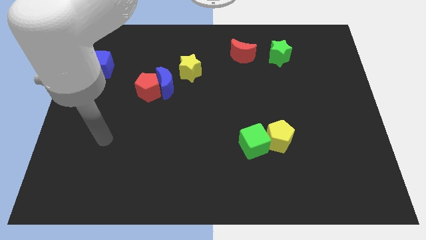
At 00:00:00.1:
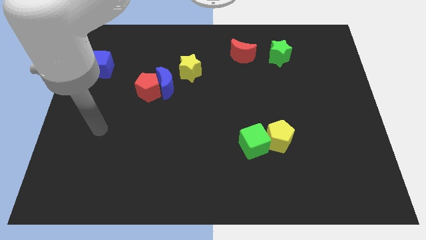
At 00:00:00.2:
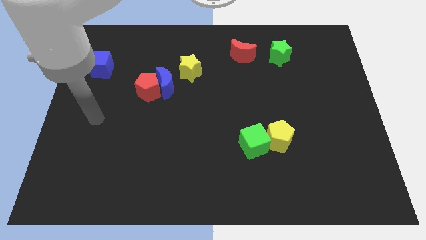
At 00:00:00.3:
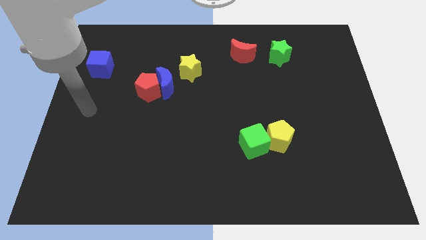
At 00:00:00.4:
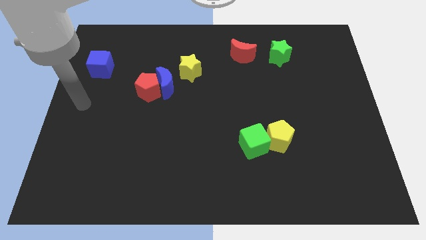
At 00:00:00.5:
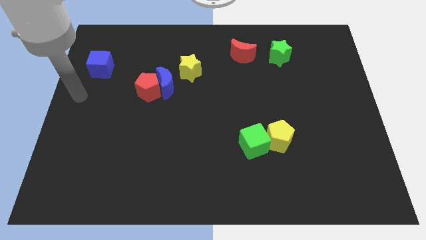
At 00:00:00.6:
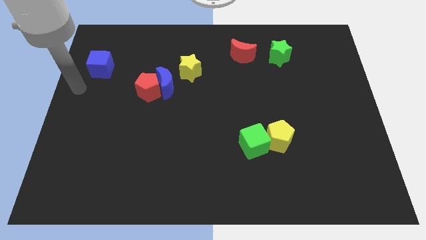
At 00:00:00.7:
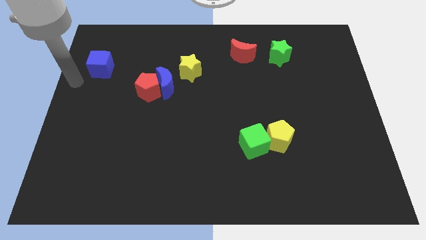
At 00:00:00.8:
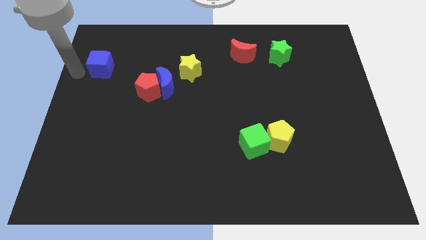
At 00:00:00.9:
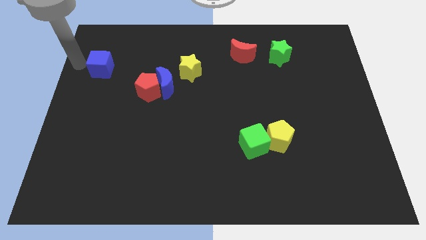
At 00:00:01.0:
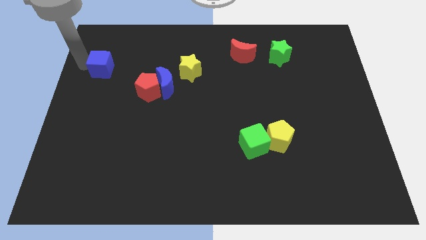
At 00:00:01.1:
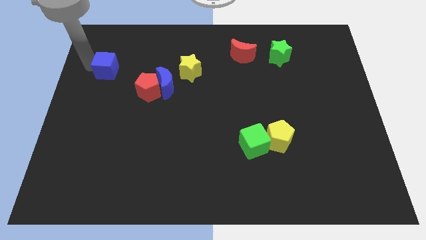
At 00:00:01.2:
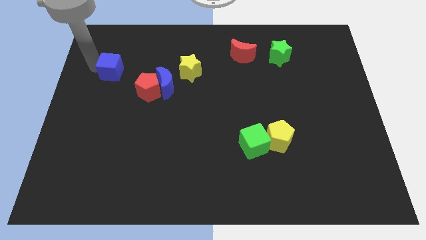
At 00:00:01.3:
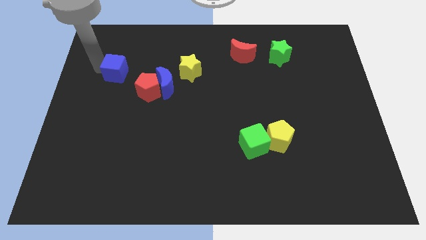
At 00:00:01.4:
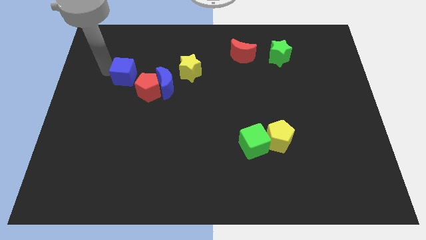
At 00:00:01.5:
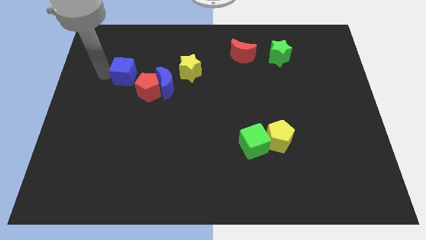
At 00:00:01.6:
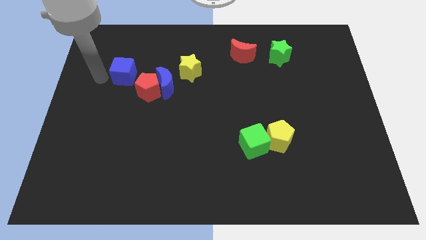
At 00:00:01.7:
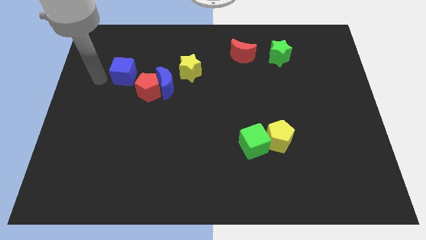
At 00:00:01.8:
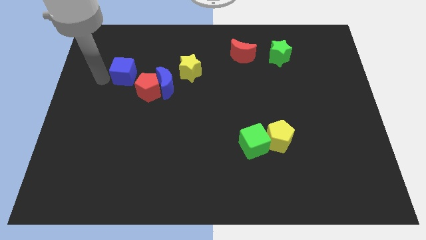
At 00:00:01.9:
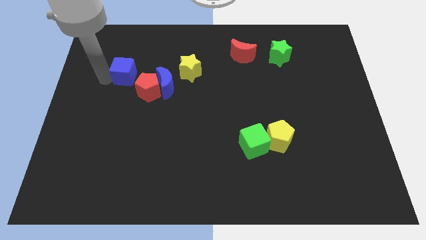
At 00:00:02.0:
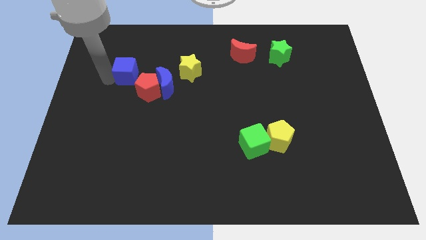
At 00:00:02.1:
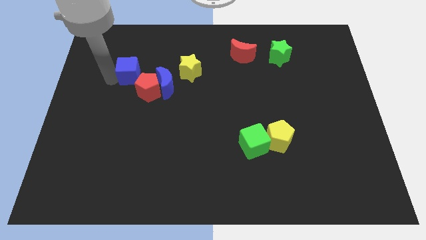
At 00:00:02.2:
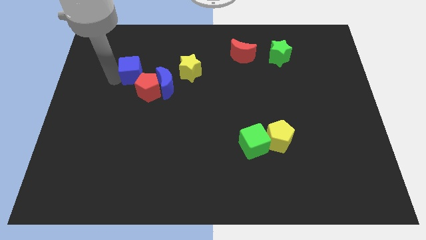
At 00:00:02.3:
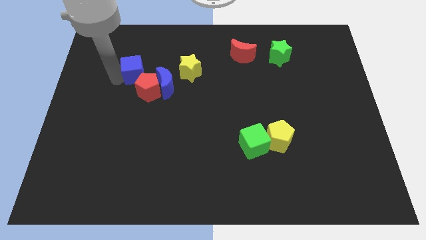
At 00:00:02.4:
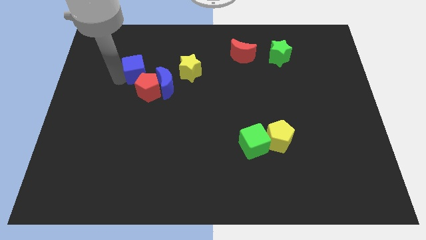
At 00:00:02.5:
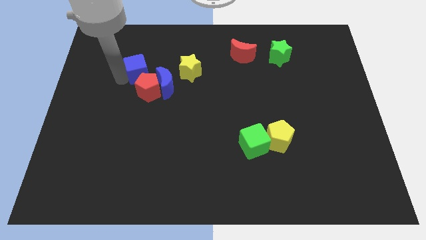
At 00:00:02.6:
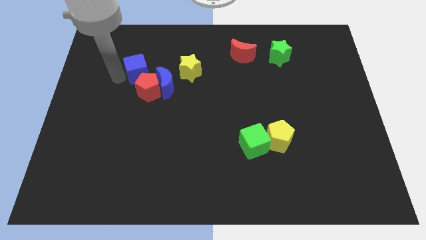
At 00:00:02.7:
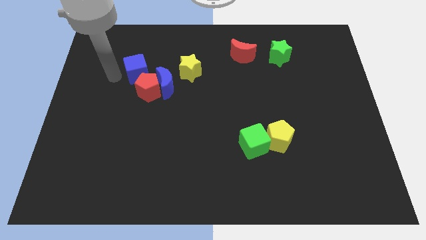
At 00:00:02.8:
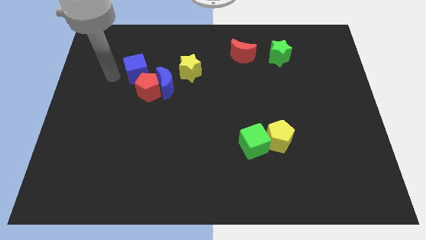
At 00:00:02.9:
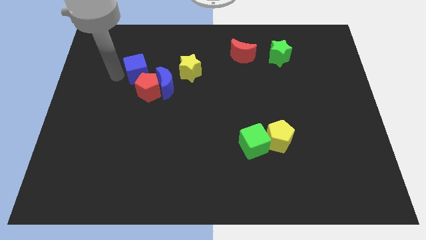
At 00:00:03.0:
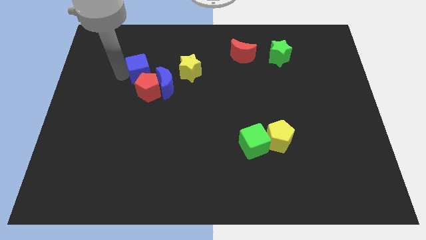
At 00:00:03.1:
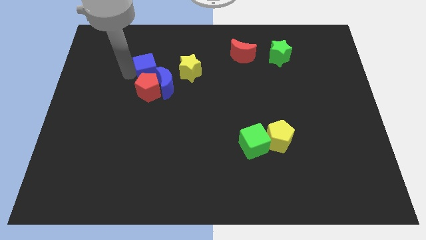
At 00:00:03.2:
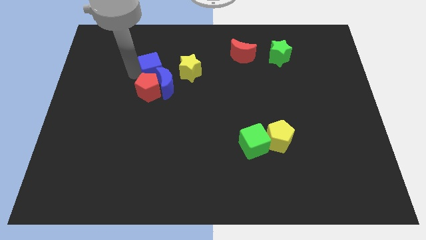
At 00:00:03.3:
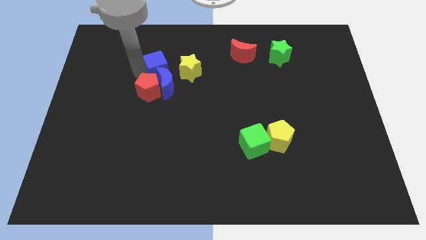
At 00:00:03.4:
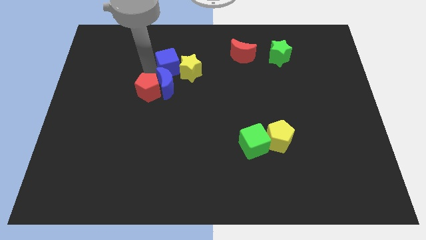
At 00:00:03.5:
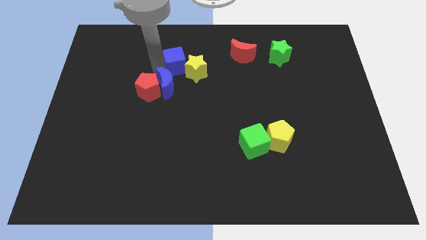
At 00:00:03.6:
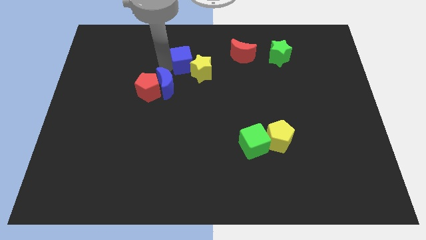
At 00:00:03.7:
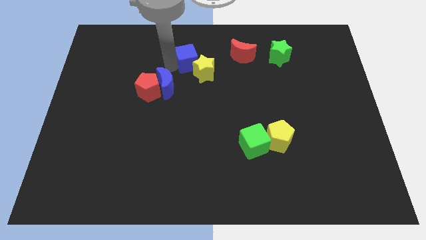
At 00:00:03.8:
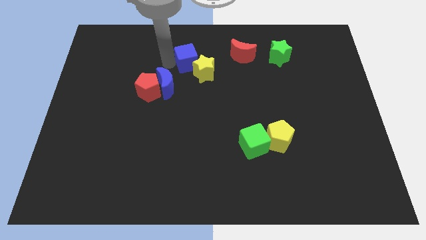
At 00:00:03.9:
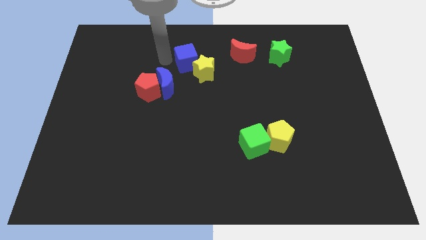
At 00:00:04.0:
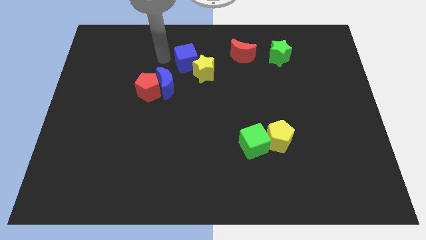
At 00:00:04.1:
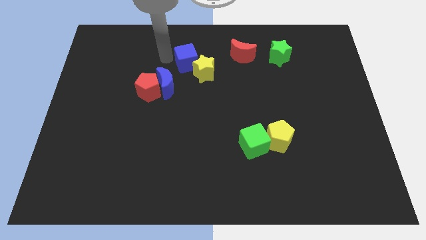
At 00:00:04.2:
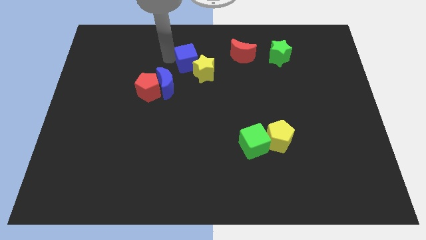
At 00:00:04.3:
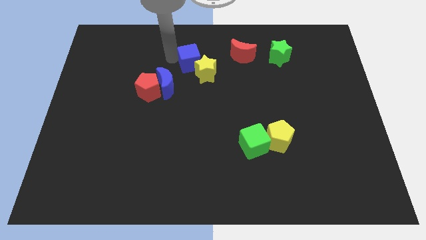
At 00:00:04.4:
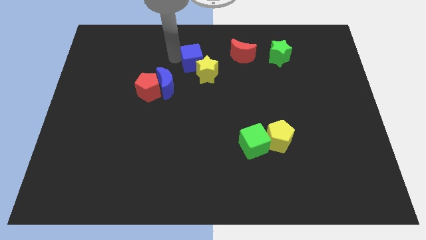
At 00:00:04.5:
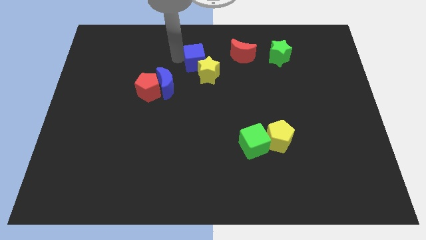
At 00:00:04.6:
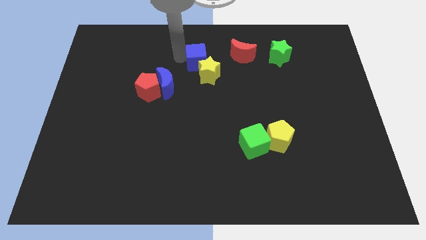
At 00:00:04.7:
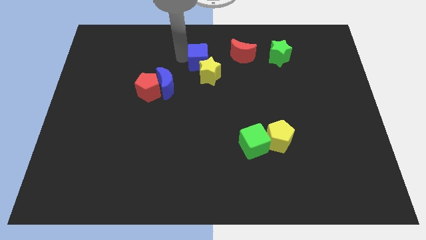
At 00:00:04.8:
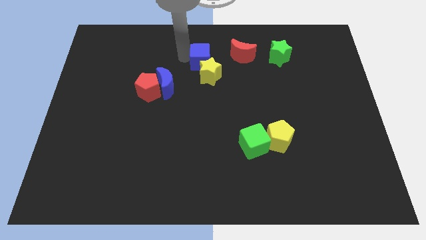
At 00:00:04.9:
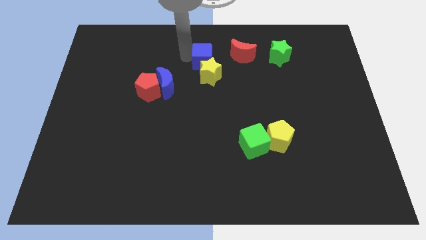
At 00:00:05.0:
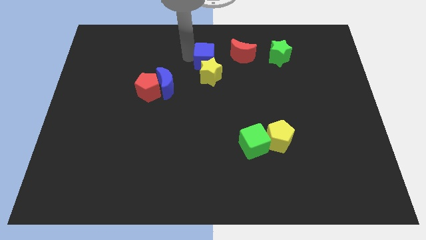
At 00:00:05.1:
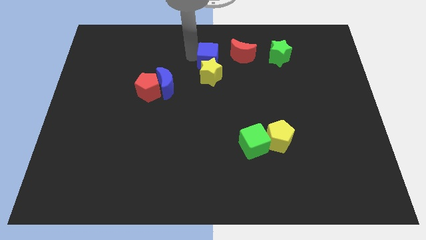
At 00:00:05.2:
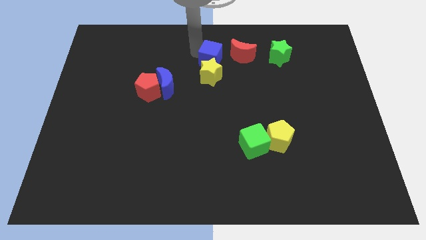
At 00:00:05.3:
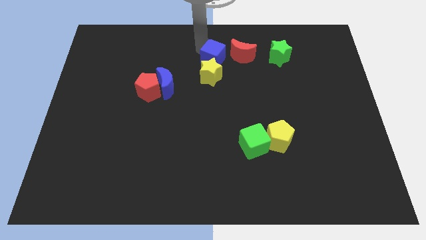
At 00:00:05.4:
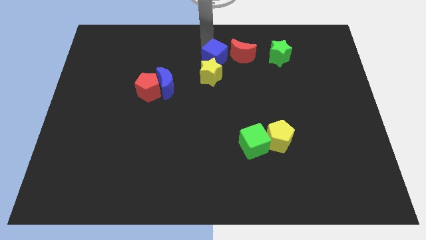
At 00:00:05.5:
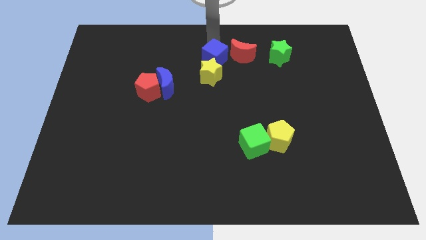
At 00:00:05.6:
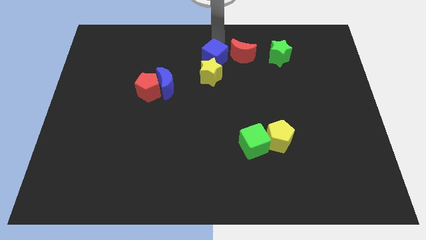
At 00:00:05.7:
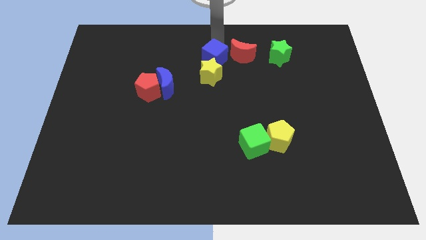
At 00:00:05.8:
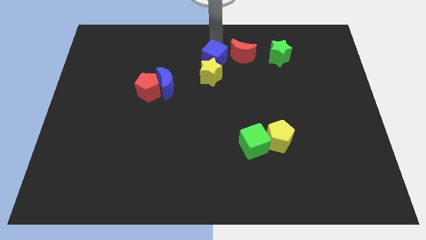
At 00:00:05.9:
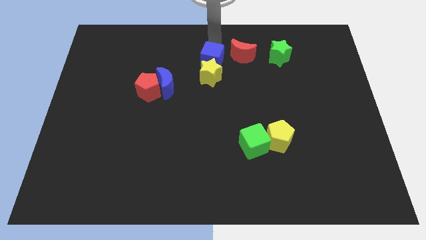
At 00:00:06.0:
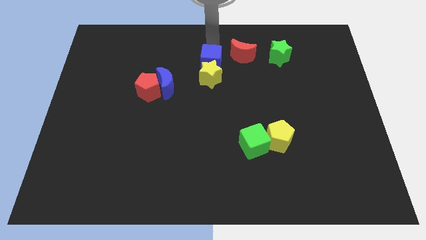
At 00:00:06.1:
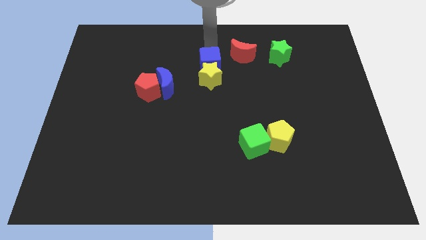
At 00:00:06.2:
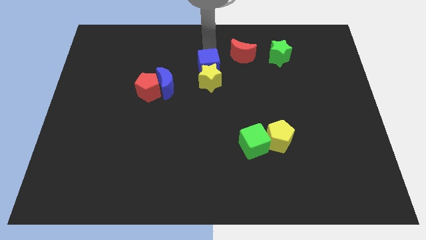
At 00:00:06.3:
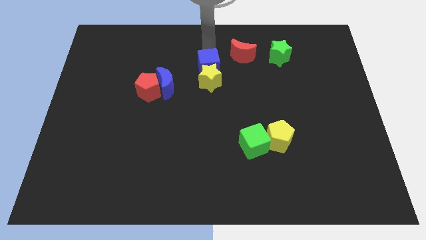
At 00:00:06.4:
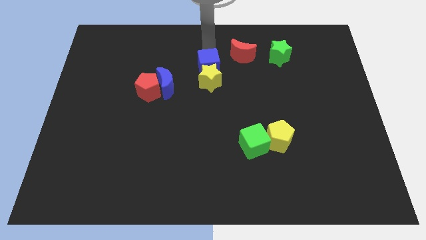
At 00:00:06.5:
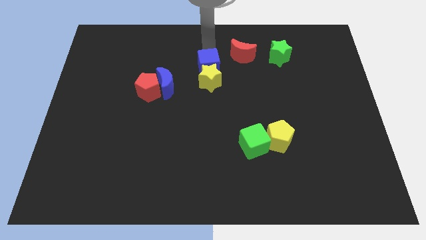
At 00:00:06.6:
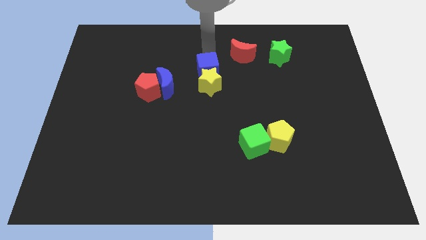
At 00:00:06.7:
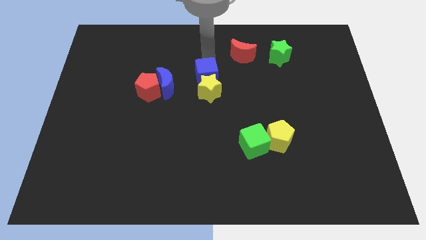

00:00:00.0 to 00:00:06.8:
move the blue cube to the right side of the blue moon

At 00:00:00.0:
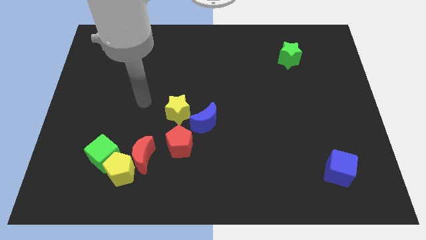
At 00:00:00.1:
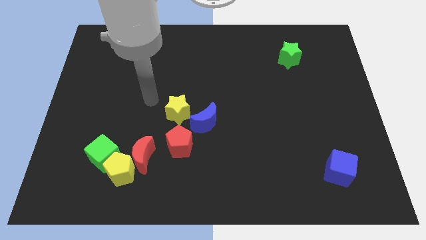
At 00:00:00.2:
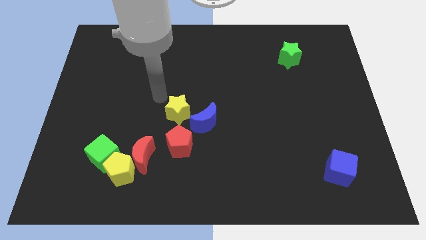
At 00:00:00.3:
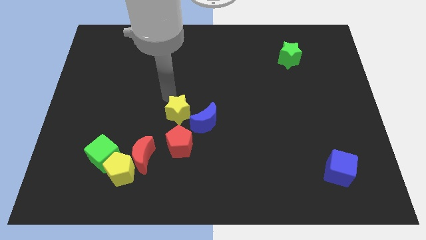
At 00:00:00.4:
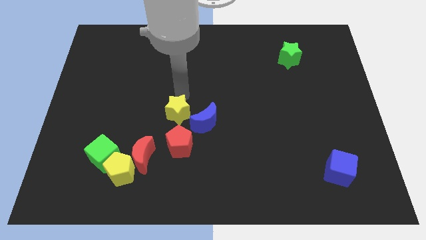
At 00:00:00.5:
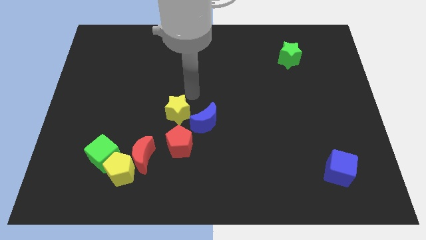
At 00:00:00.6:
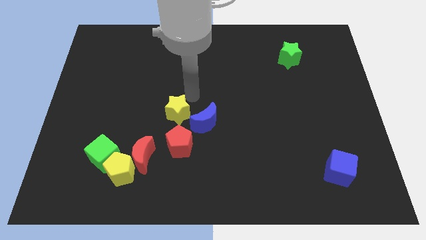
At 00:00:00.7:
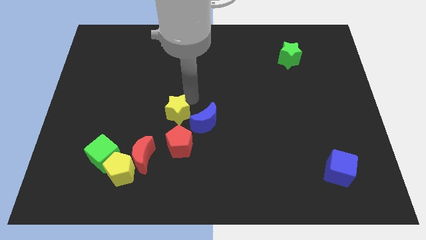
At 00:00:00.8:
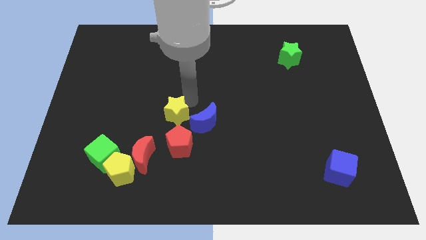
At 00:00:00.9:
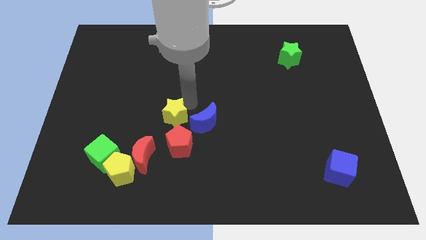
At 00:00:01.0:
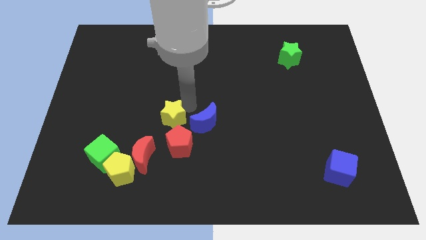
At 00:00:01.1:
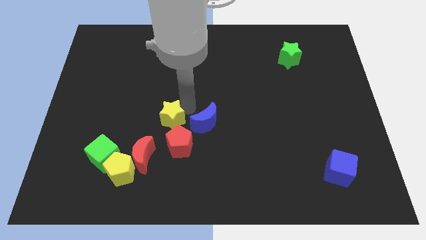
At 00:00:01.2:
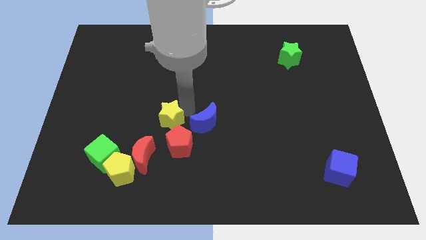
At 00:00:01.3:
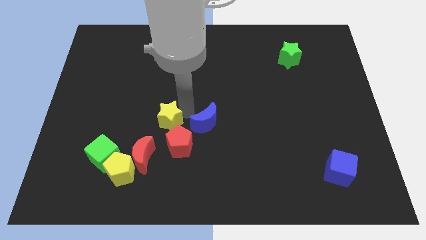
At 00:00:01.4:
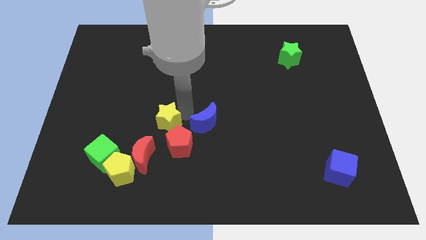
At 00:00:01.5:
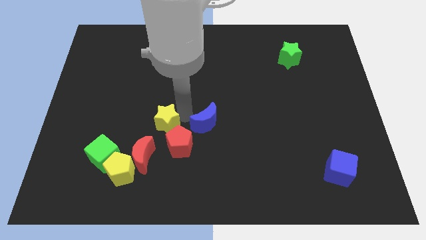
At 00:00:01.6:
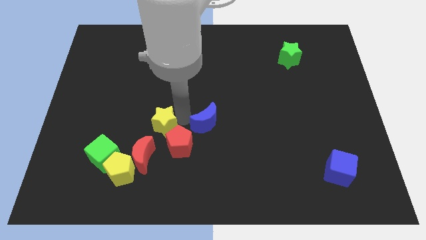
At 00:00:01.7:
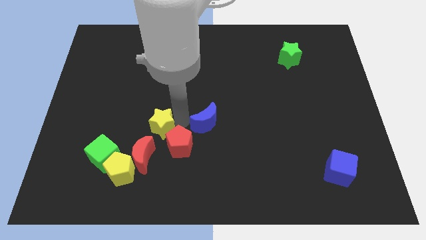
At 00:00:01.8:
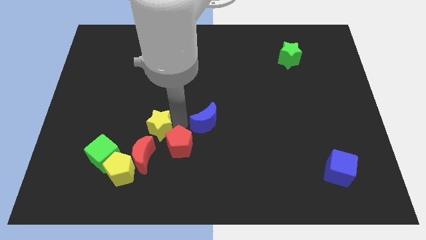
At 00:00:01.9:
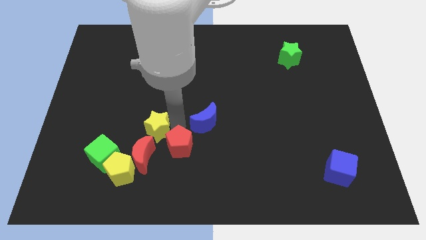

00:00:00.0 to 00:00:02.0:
move the yellow star to the top right of the yellow pentagon
